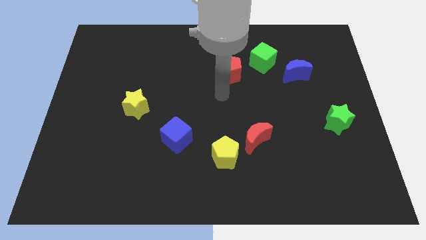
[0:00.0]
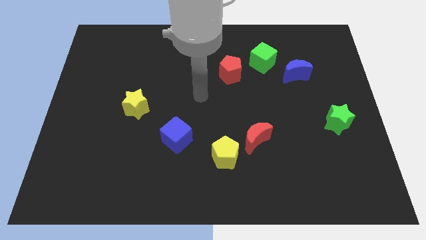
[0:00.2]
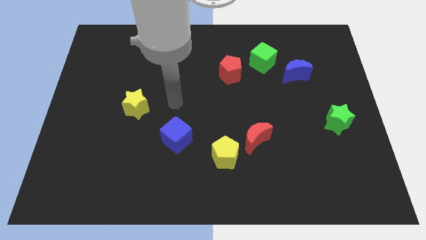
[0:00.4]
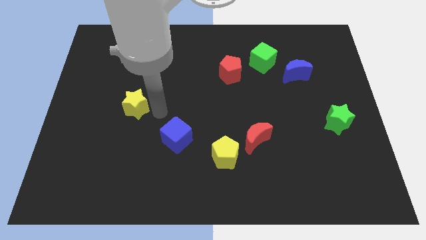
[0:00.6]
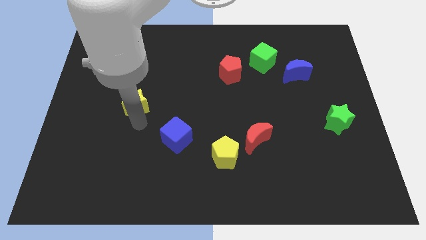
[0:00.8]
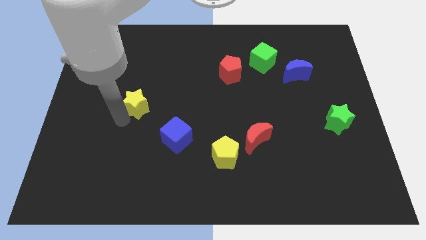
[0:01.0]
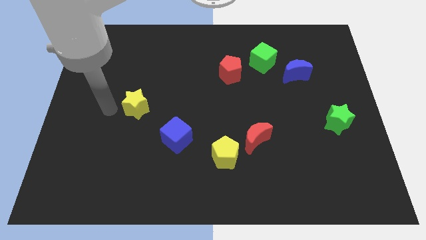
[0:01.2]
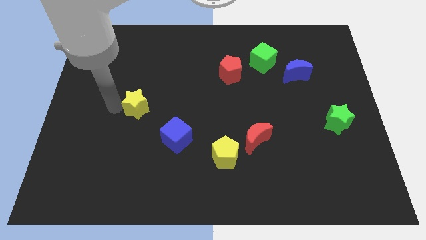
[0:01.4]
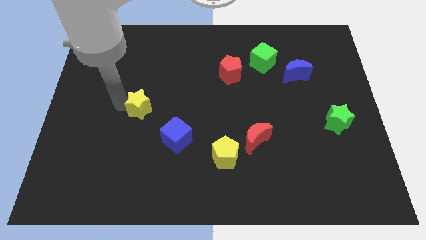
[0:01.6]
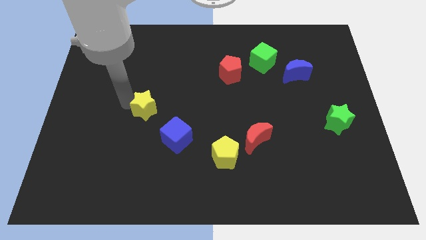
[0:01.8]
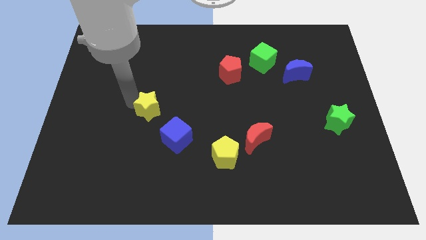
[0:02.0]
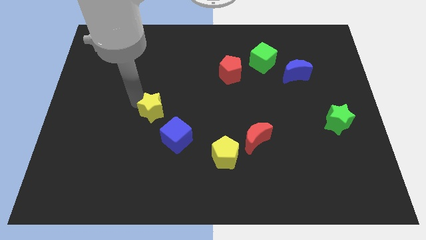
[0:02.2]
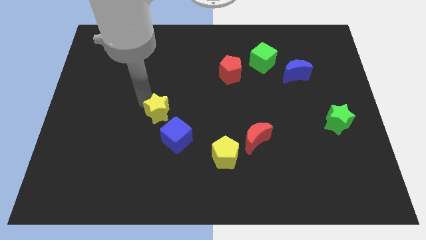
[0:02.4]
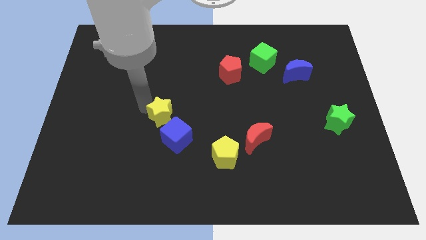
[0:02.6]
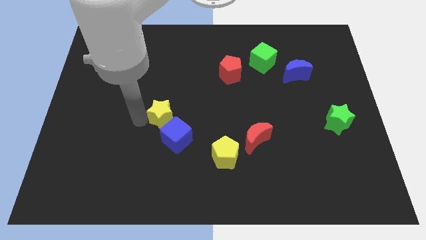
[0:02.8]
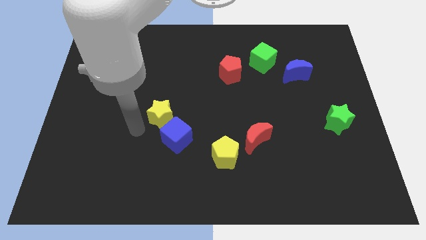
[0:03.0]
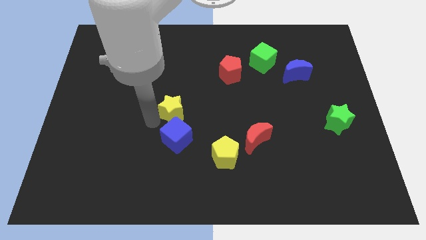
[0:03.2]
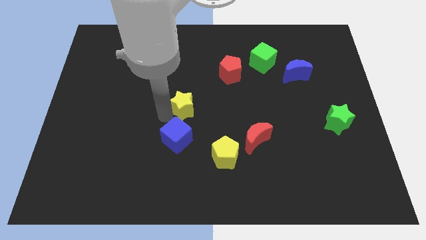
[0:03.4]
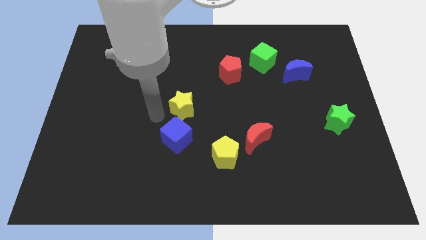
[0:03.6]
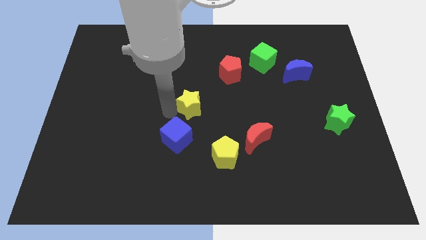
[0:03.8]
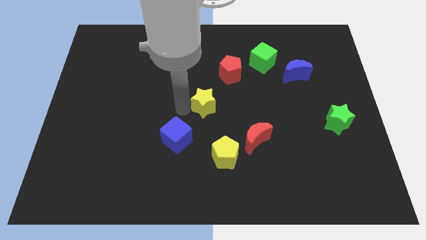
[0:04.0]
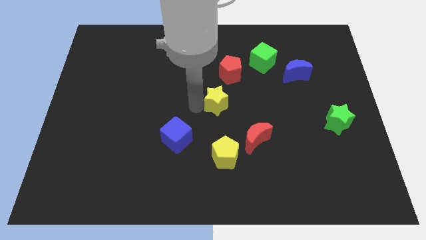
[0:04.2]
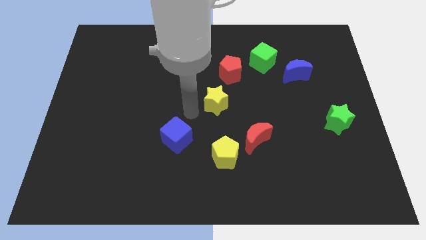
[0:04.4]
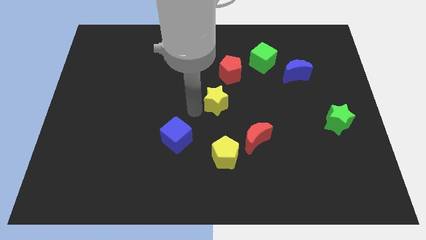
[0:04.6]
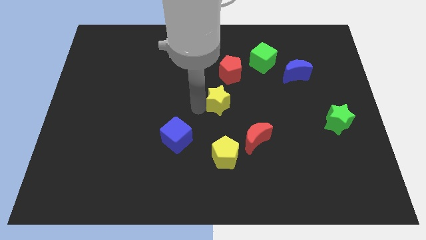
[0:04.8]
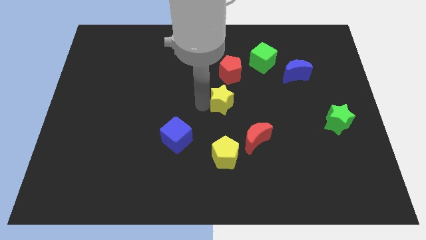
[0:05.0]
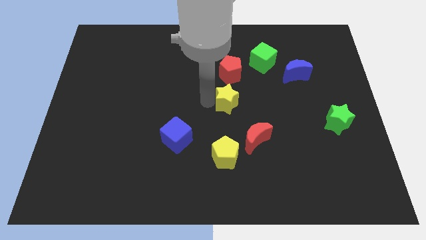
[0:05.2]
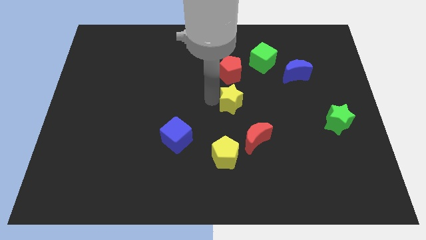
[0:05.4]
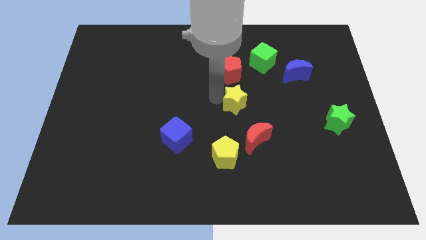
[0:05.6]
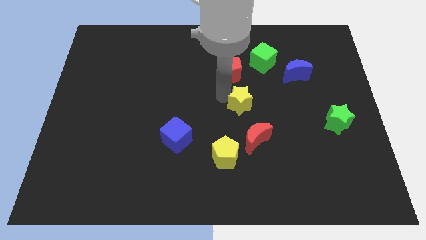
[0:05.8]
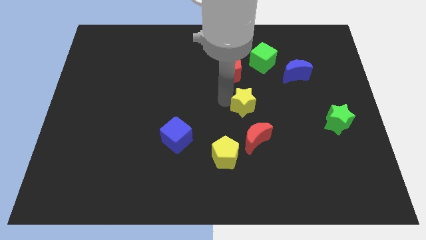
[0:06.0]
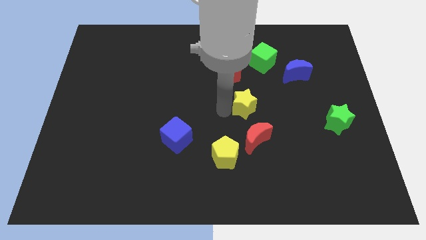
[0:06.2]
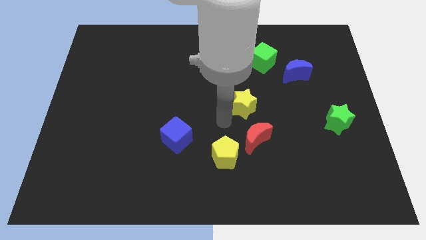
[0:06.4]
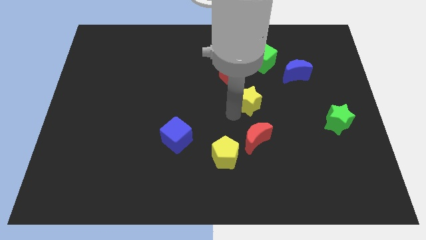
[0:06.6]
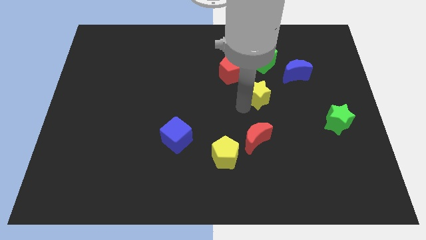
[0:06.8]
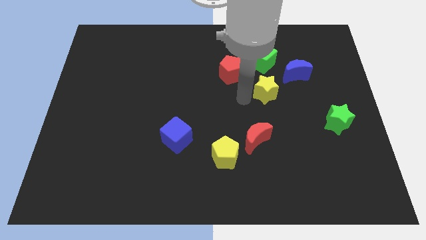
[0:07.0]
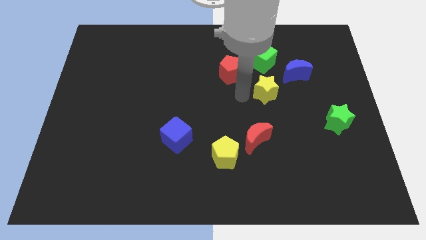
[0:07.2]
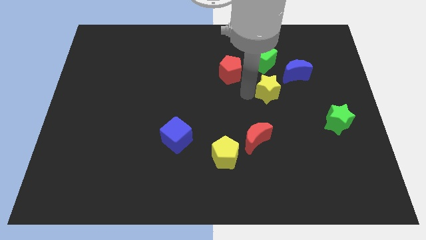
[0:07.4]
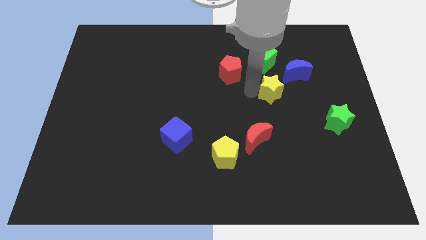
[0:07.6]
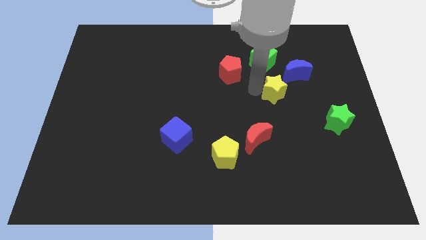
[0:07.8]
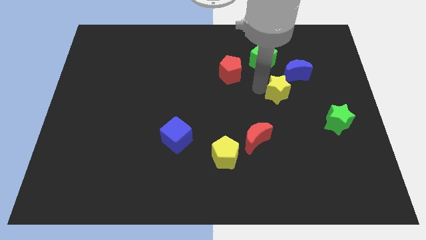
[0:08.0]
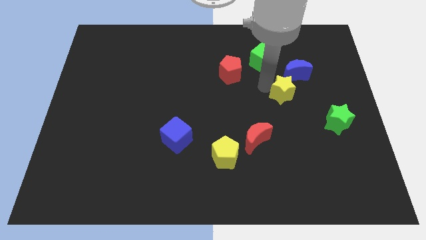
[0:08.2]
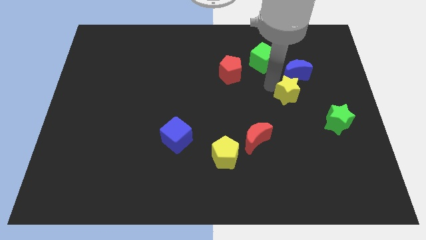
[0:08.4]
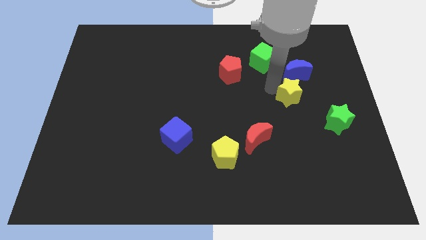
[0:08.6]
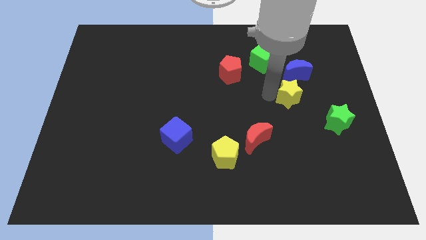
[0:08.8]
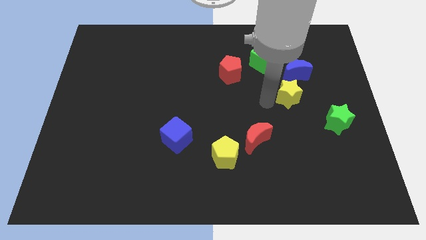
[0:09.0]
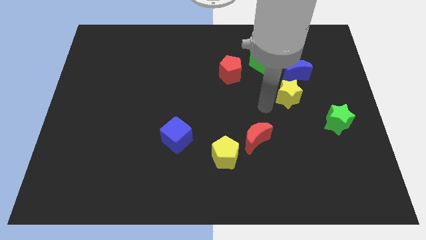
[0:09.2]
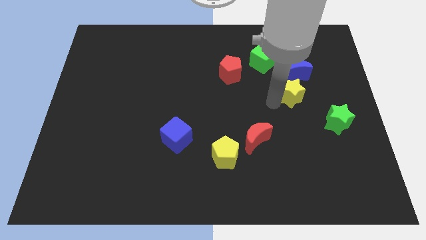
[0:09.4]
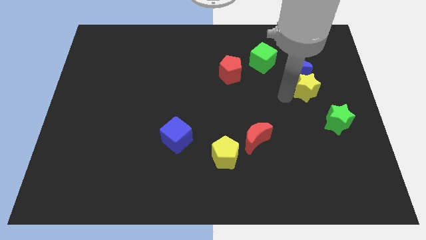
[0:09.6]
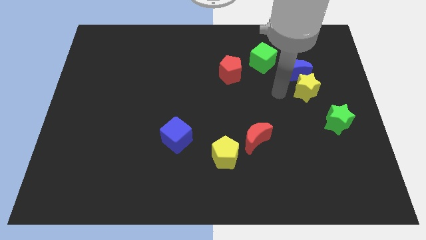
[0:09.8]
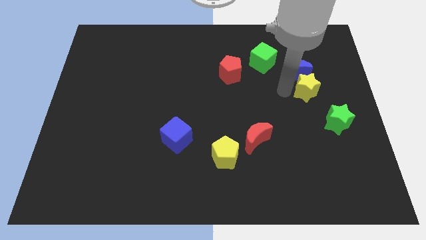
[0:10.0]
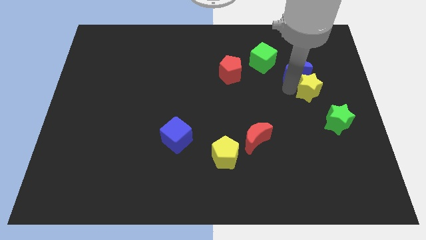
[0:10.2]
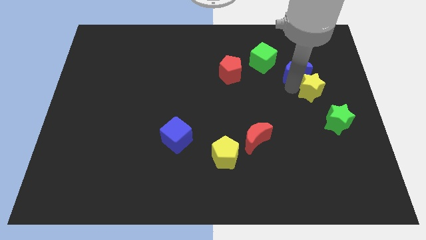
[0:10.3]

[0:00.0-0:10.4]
move the yellow star to the top of the green star

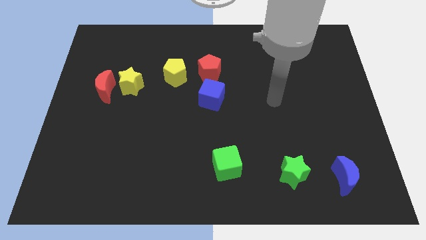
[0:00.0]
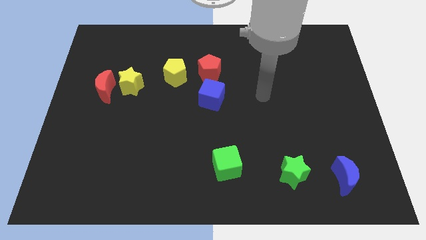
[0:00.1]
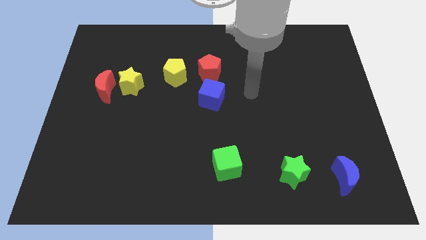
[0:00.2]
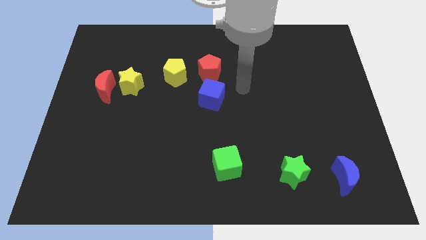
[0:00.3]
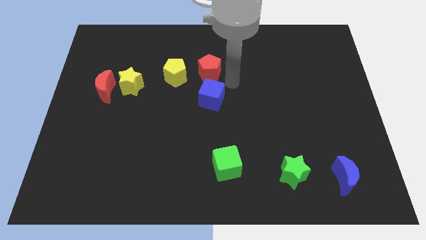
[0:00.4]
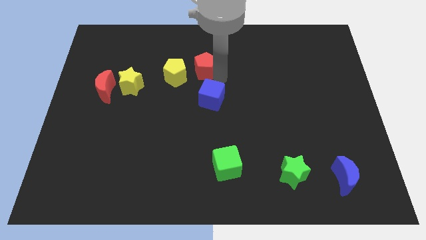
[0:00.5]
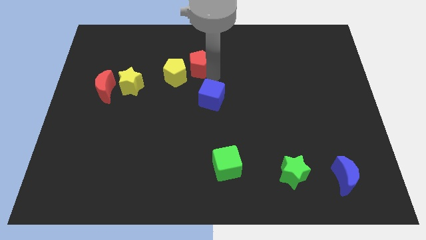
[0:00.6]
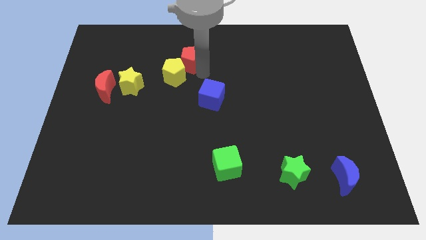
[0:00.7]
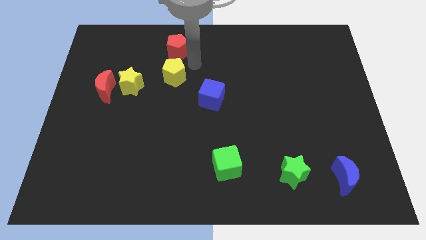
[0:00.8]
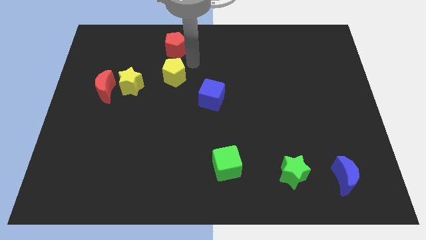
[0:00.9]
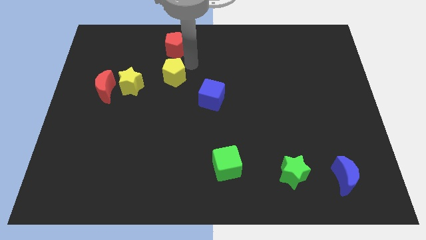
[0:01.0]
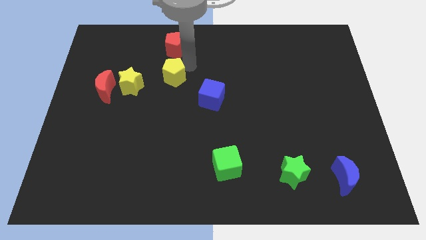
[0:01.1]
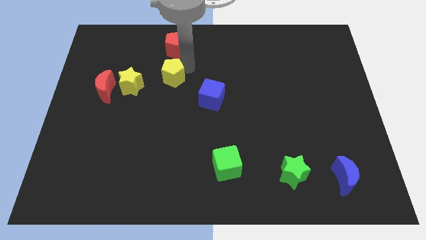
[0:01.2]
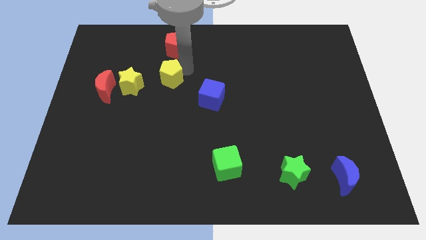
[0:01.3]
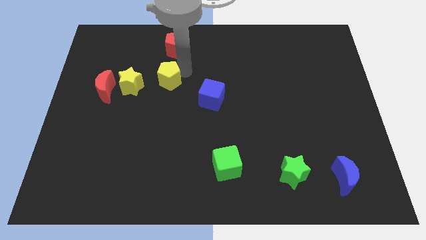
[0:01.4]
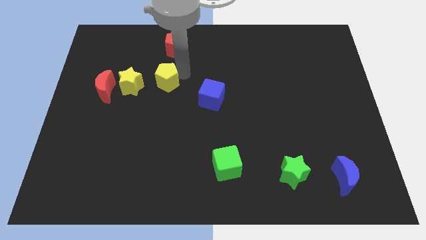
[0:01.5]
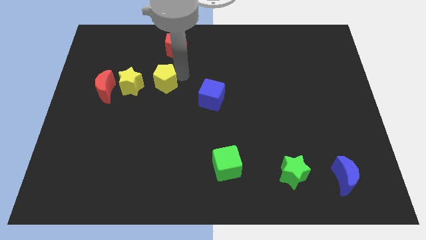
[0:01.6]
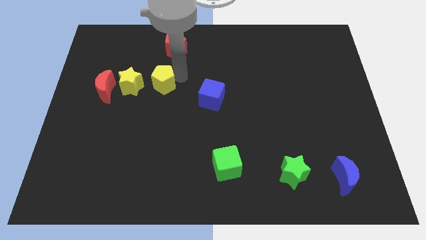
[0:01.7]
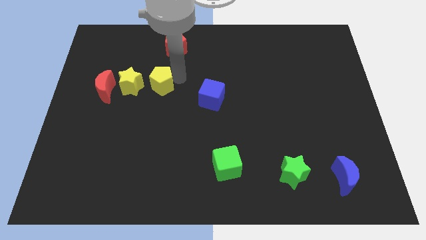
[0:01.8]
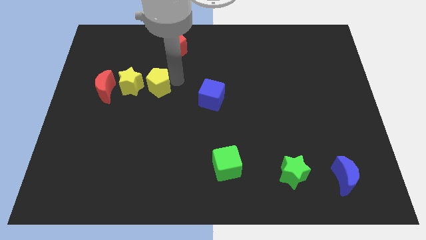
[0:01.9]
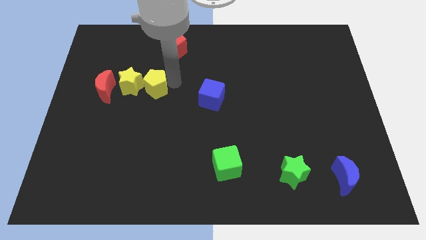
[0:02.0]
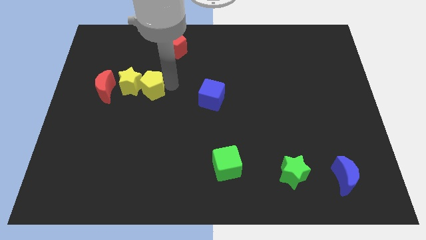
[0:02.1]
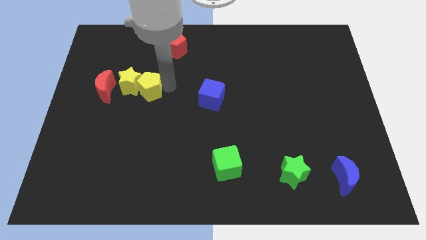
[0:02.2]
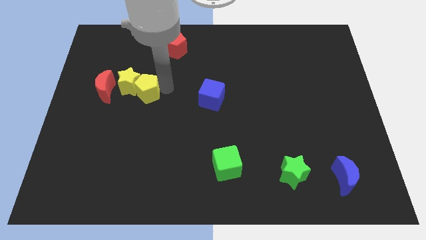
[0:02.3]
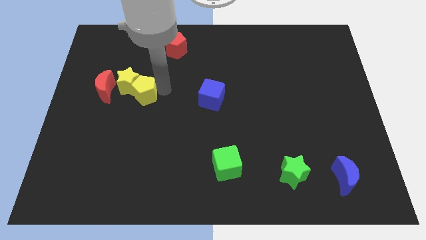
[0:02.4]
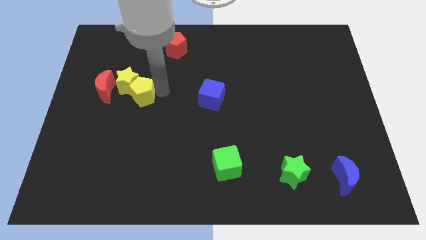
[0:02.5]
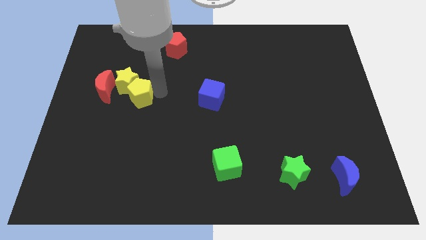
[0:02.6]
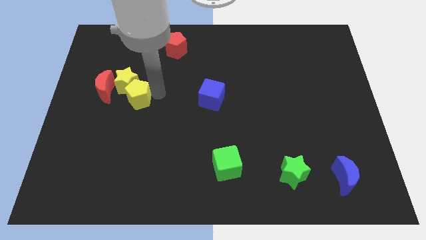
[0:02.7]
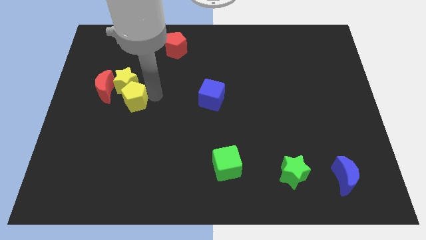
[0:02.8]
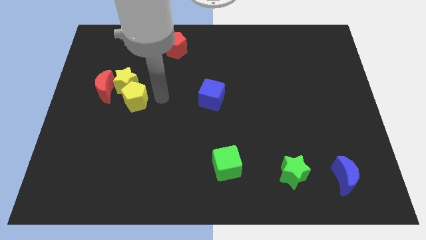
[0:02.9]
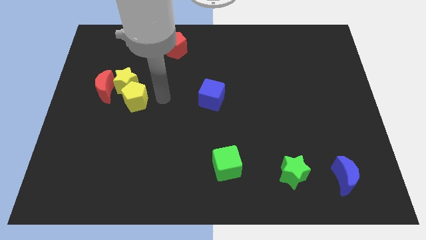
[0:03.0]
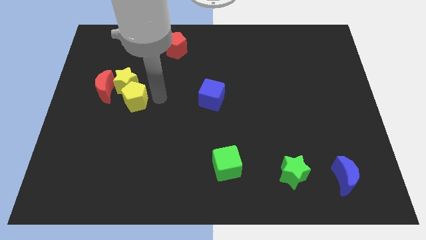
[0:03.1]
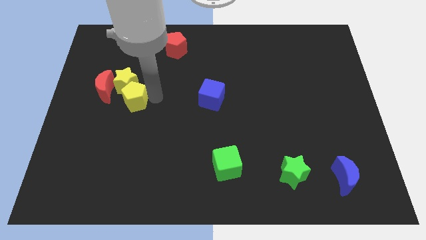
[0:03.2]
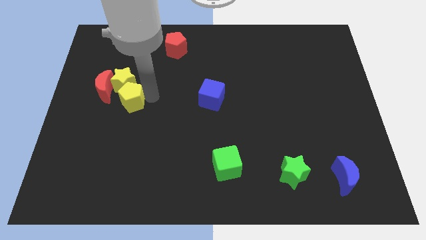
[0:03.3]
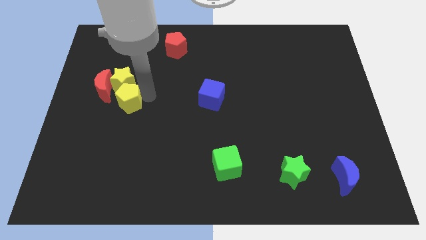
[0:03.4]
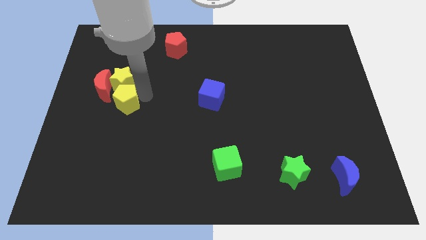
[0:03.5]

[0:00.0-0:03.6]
slide the yellow pentagon to the bottom left of the yellow star
